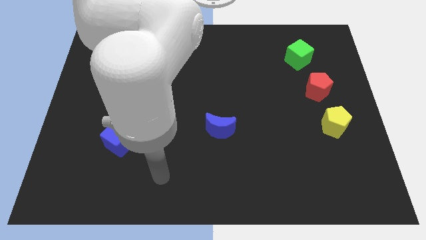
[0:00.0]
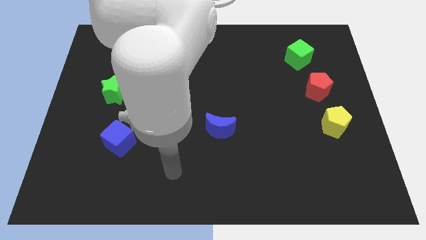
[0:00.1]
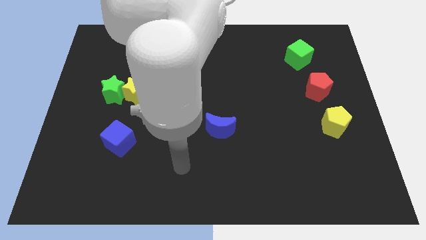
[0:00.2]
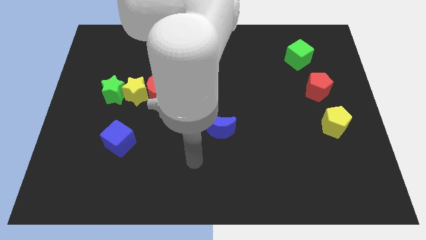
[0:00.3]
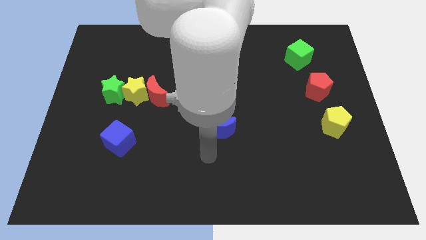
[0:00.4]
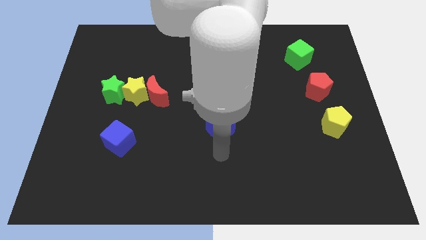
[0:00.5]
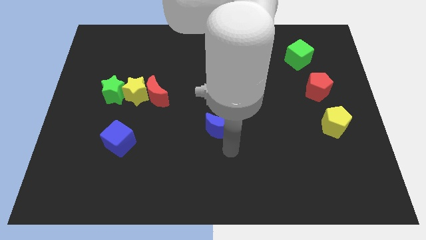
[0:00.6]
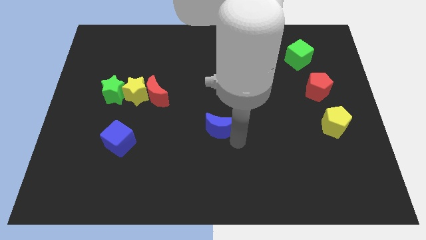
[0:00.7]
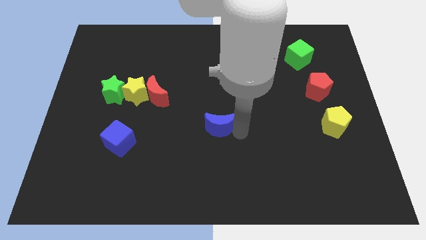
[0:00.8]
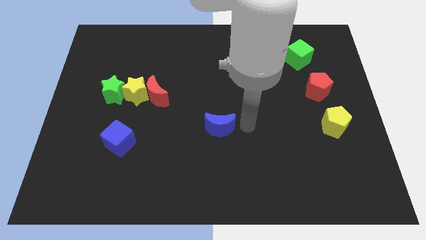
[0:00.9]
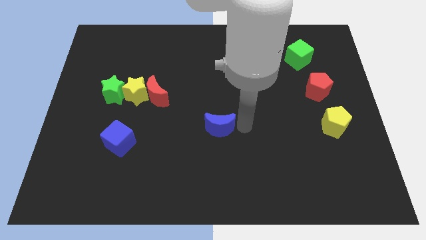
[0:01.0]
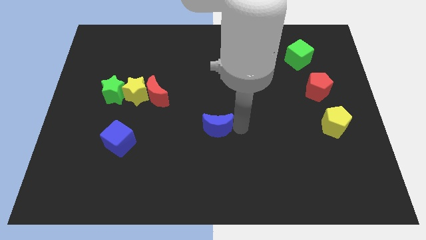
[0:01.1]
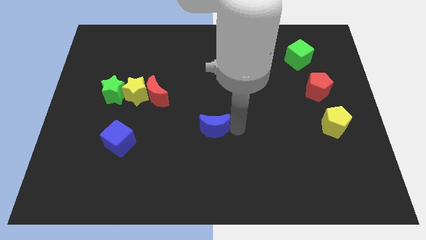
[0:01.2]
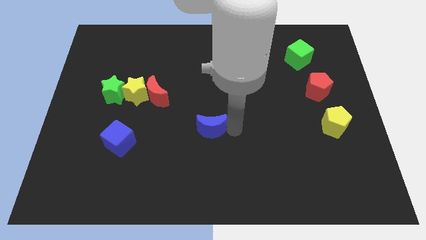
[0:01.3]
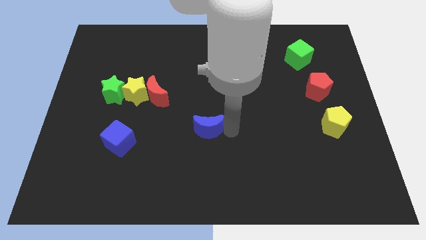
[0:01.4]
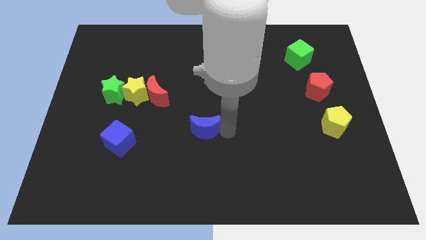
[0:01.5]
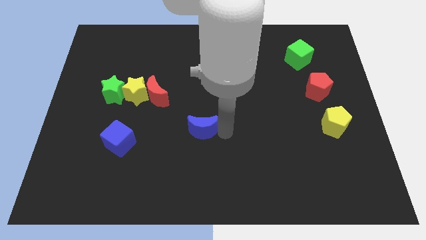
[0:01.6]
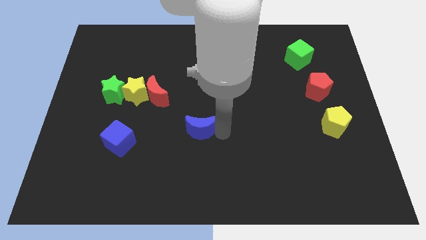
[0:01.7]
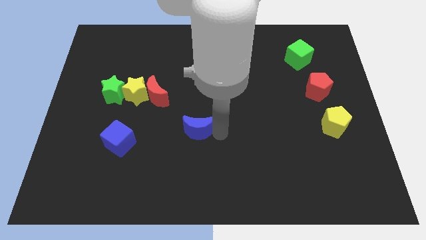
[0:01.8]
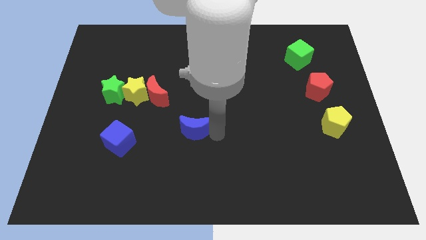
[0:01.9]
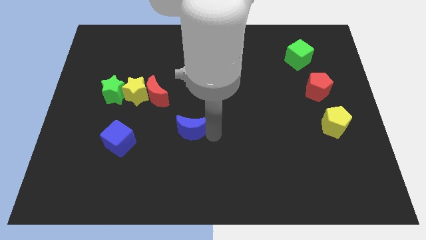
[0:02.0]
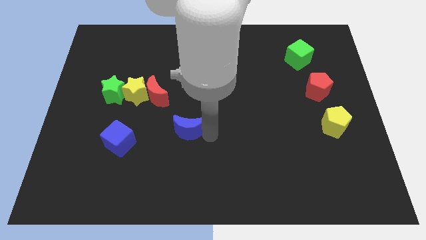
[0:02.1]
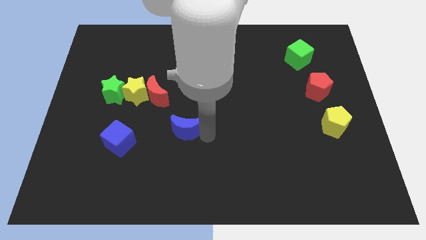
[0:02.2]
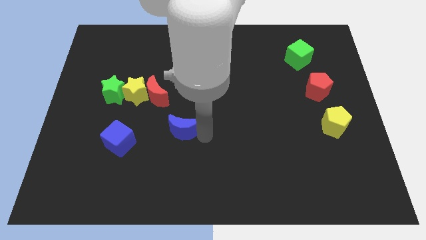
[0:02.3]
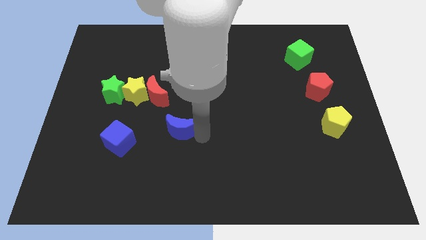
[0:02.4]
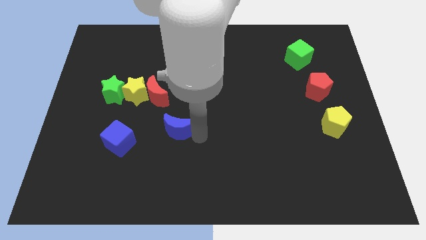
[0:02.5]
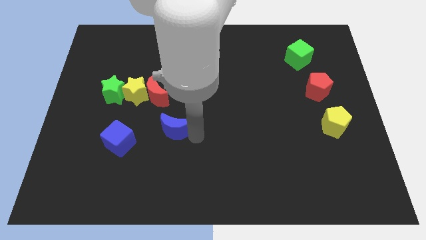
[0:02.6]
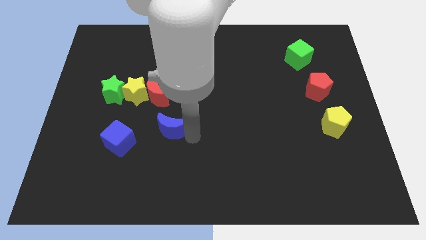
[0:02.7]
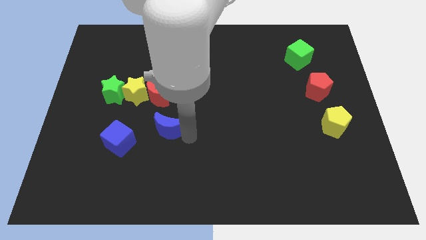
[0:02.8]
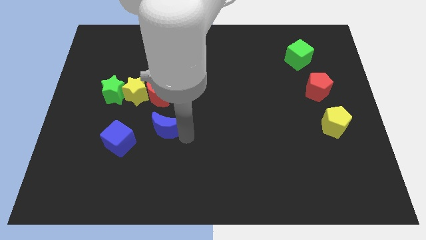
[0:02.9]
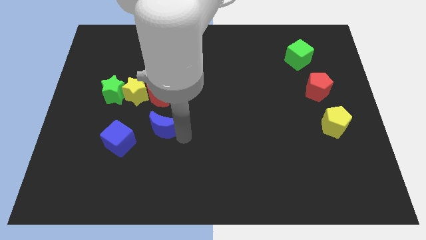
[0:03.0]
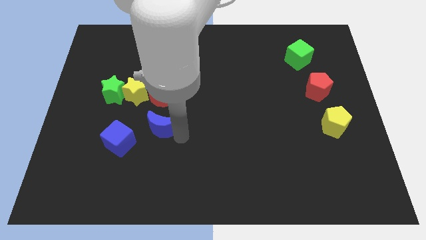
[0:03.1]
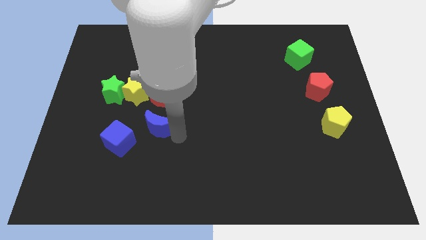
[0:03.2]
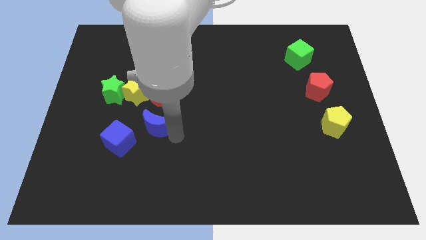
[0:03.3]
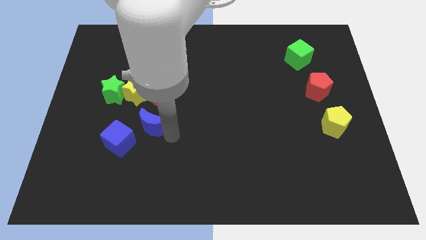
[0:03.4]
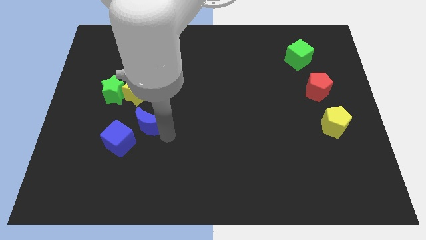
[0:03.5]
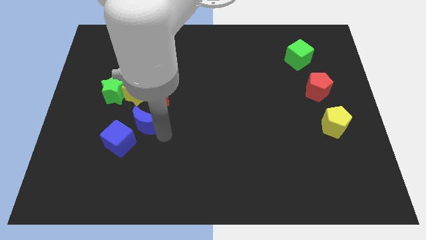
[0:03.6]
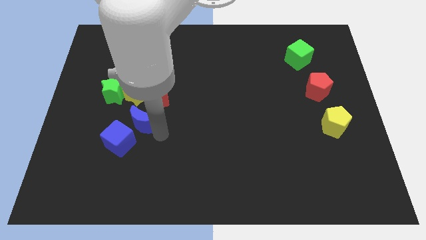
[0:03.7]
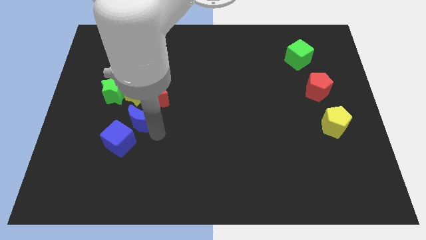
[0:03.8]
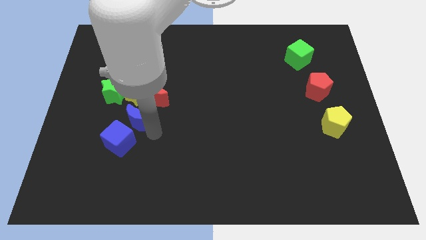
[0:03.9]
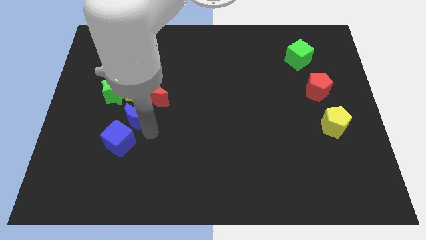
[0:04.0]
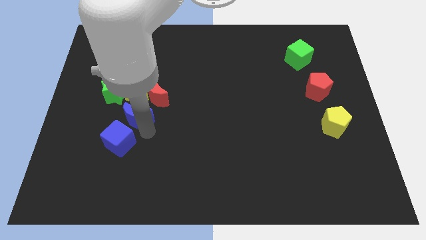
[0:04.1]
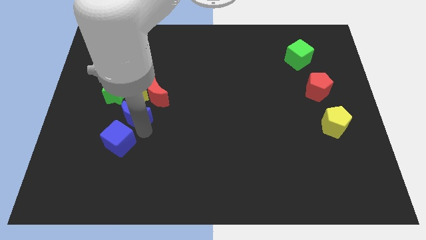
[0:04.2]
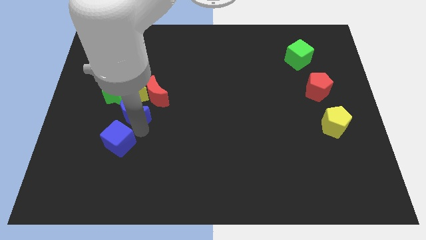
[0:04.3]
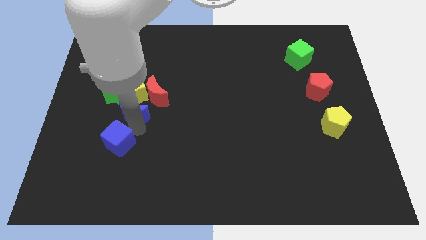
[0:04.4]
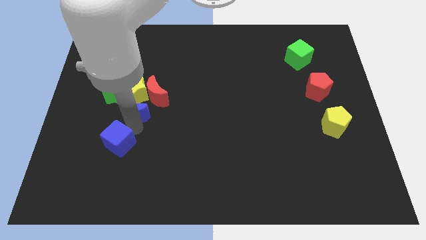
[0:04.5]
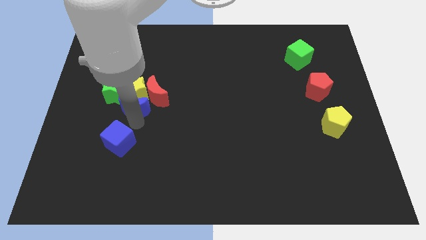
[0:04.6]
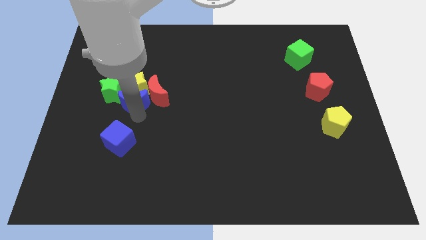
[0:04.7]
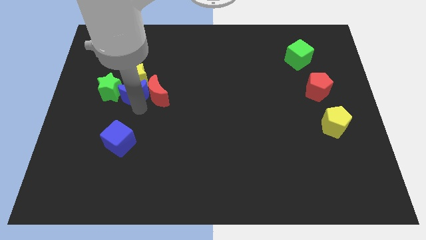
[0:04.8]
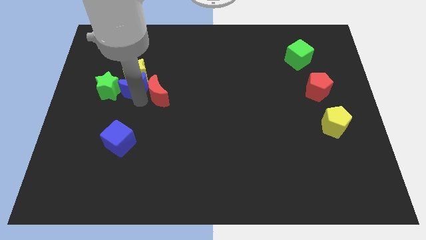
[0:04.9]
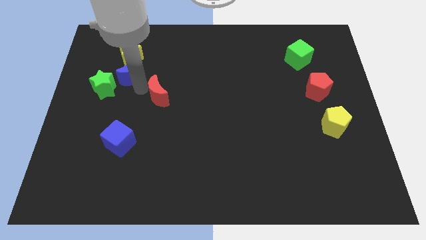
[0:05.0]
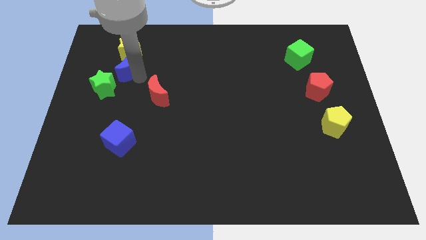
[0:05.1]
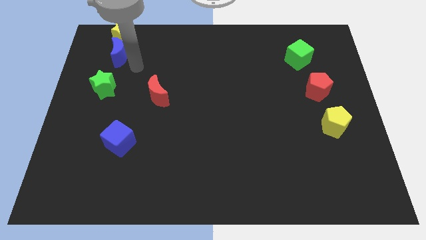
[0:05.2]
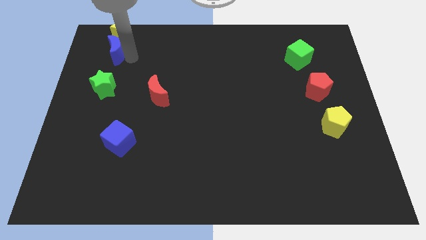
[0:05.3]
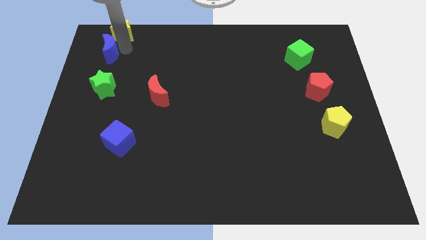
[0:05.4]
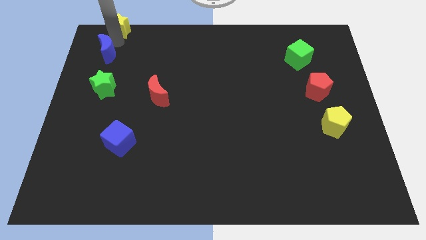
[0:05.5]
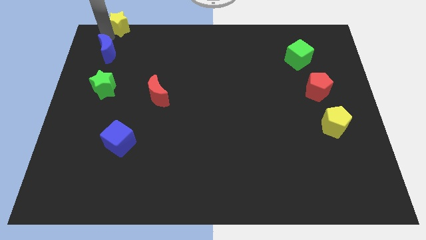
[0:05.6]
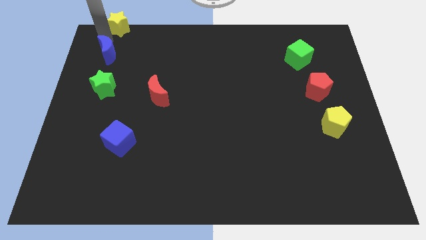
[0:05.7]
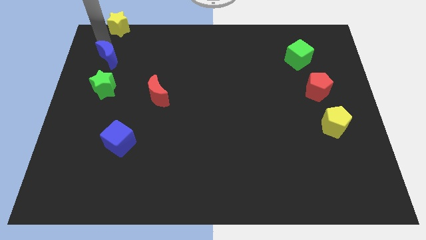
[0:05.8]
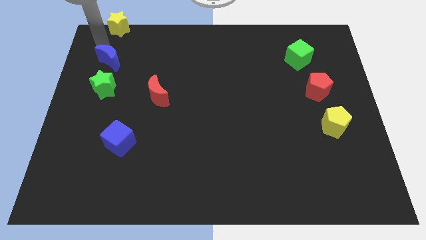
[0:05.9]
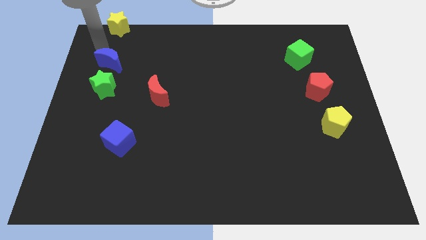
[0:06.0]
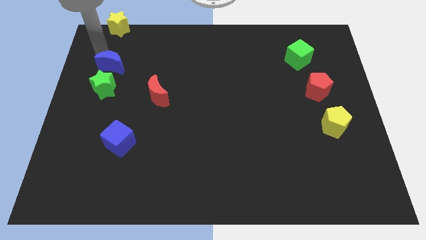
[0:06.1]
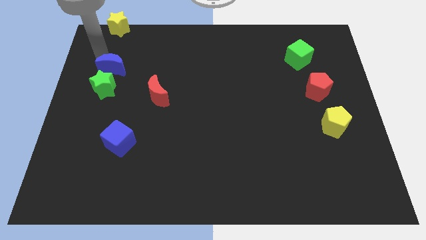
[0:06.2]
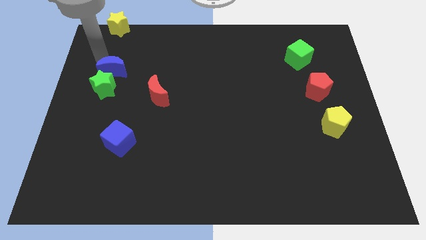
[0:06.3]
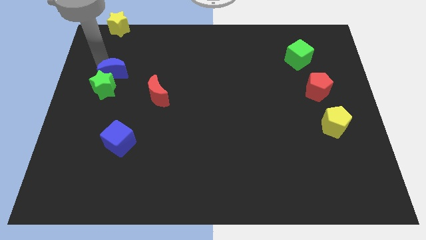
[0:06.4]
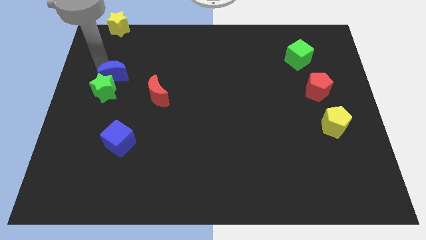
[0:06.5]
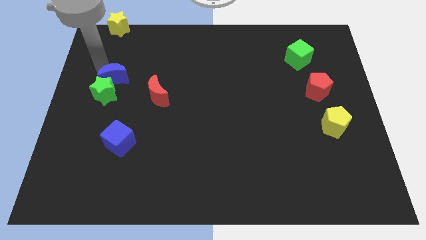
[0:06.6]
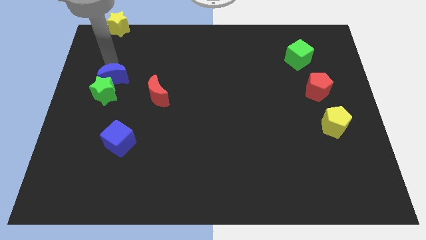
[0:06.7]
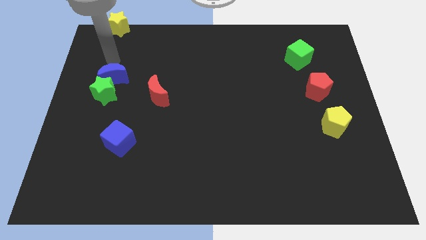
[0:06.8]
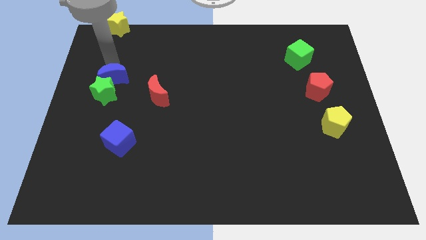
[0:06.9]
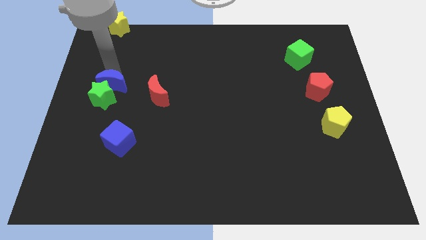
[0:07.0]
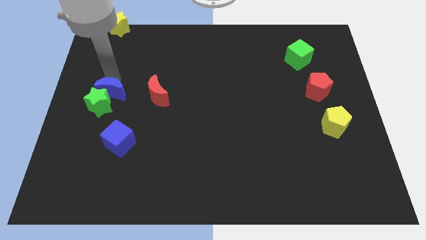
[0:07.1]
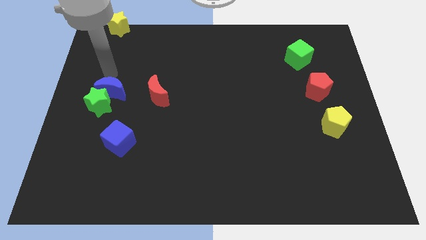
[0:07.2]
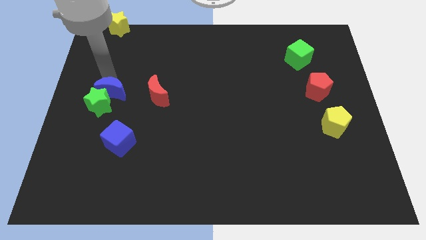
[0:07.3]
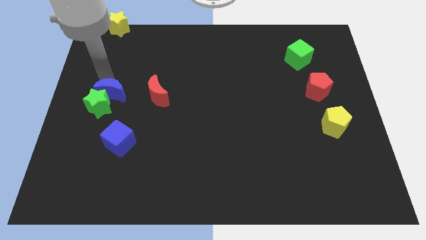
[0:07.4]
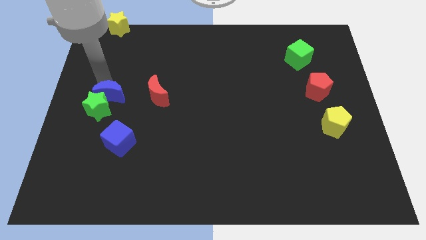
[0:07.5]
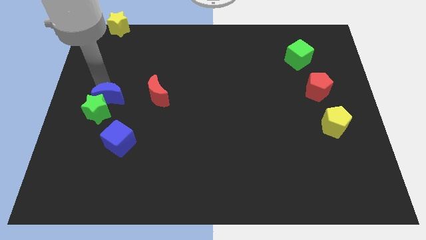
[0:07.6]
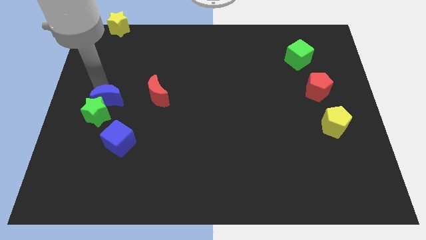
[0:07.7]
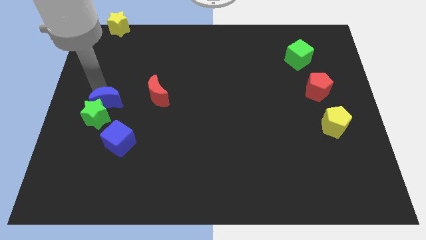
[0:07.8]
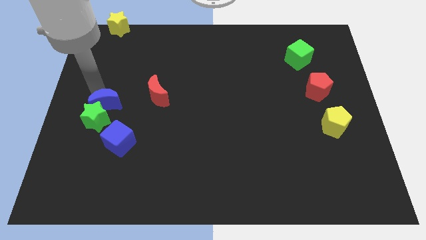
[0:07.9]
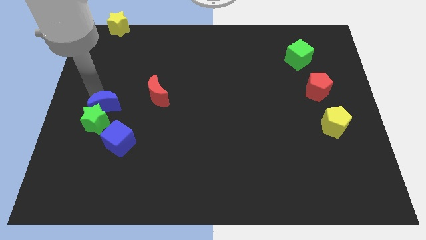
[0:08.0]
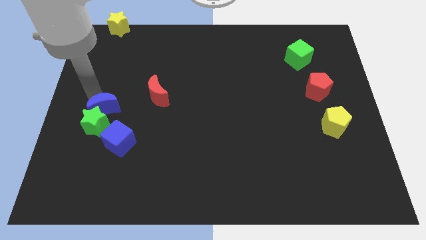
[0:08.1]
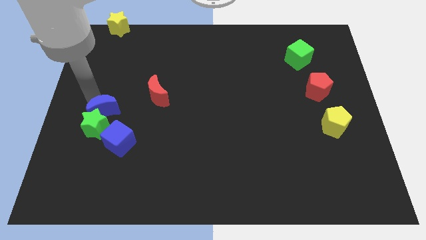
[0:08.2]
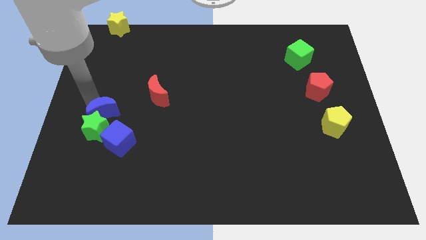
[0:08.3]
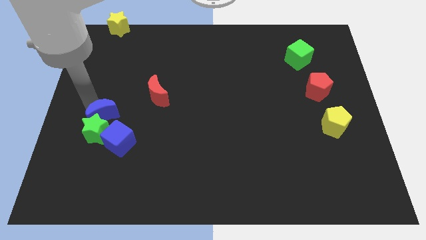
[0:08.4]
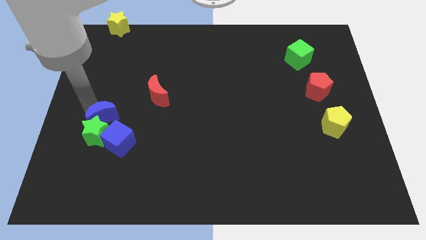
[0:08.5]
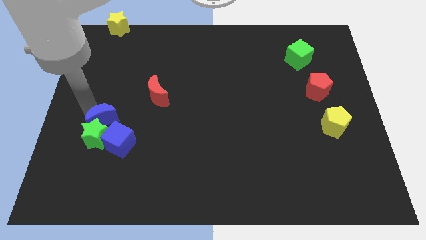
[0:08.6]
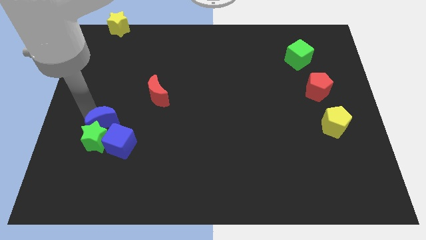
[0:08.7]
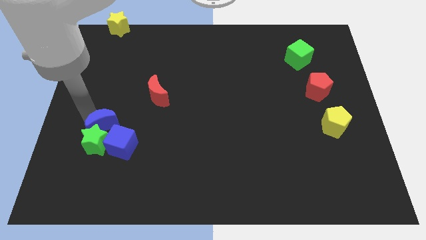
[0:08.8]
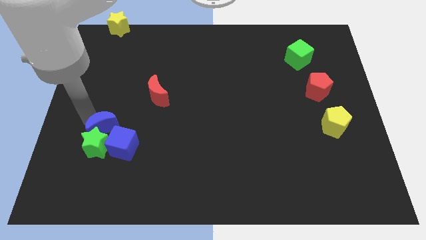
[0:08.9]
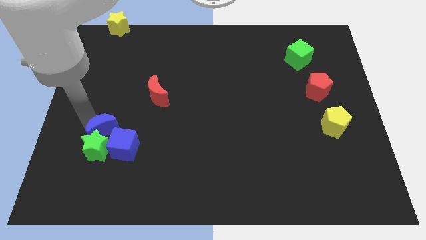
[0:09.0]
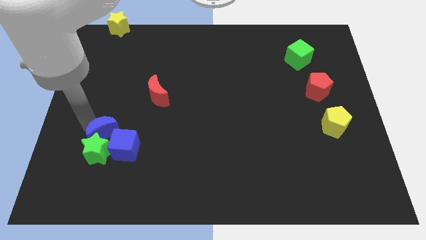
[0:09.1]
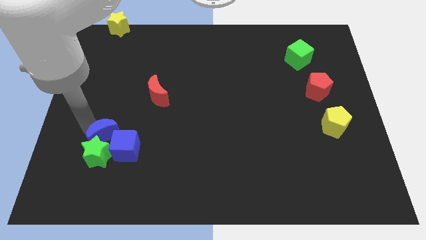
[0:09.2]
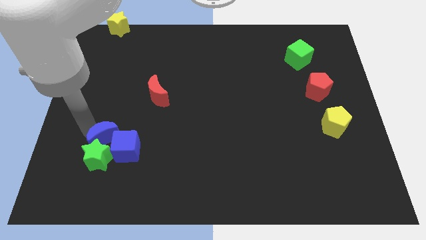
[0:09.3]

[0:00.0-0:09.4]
put the blue moon close to the blue cube
